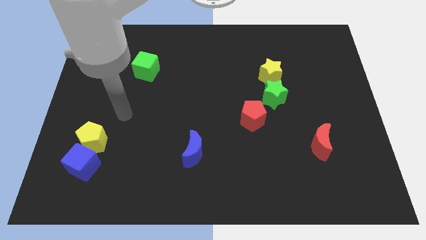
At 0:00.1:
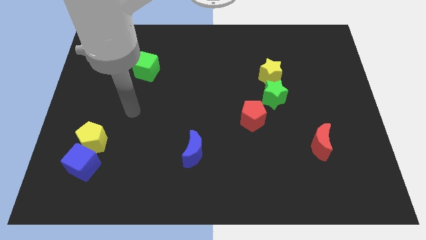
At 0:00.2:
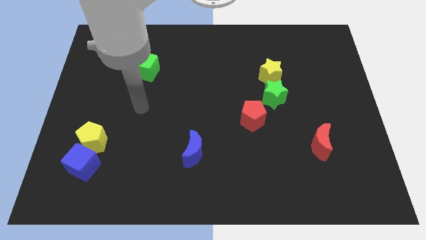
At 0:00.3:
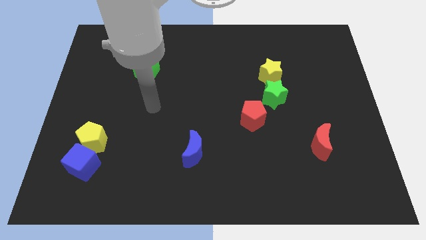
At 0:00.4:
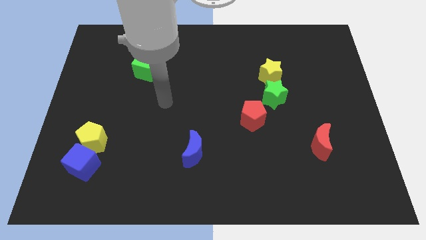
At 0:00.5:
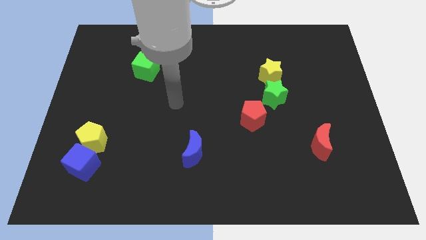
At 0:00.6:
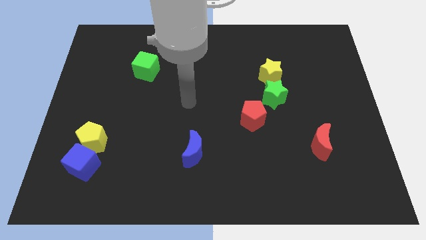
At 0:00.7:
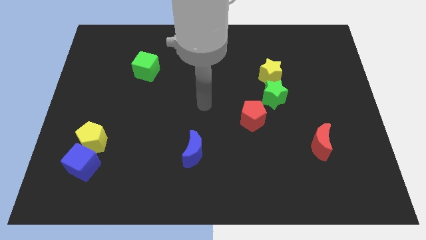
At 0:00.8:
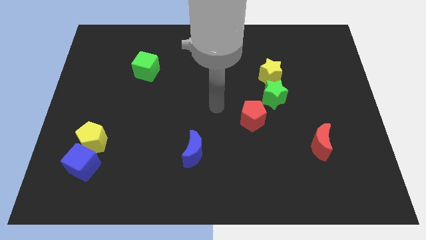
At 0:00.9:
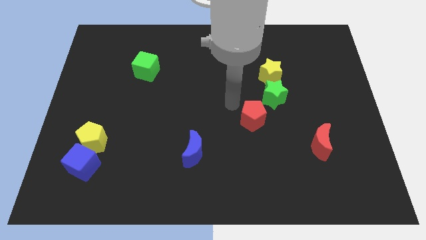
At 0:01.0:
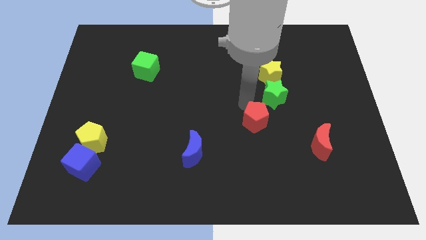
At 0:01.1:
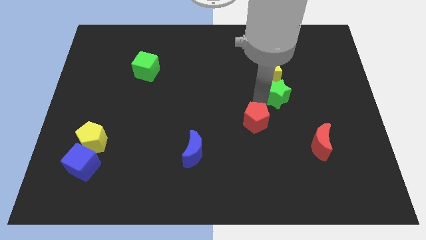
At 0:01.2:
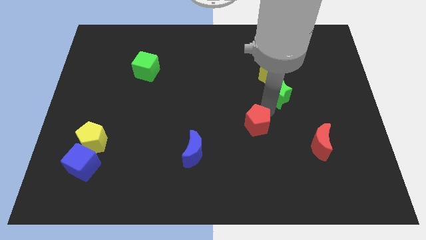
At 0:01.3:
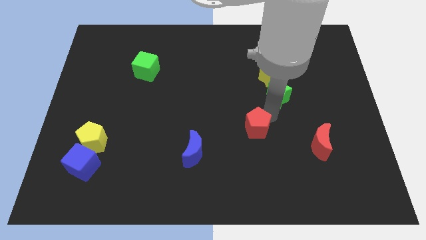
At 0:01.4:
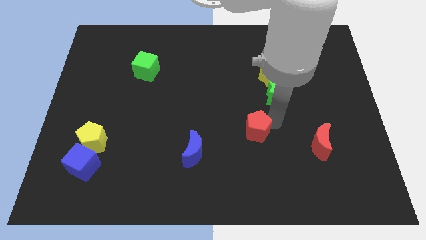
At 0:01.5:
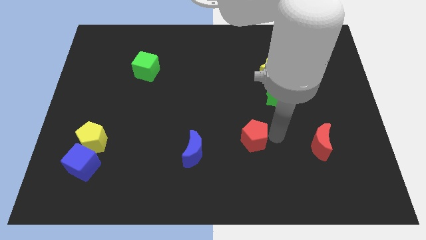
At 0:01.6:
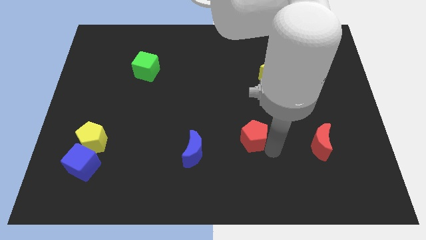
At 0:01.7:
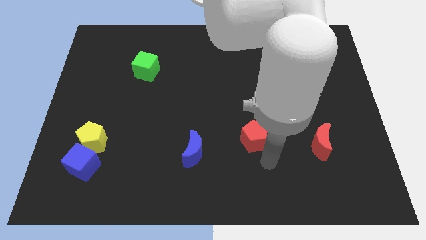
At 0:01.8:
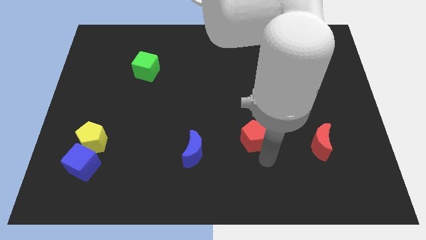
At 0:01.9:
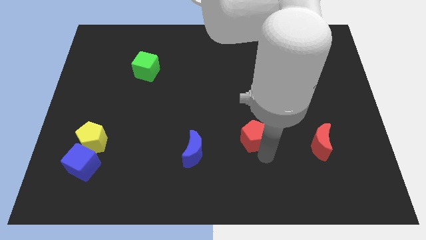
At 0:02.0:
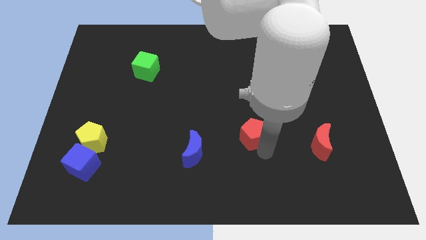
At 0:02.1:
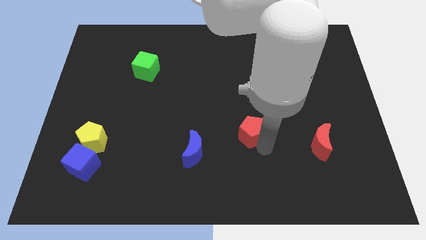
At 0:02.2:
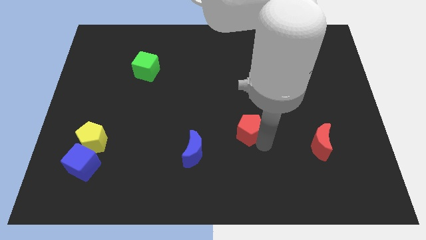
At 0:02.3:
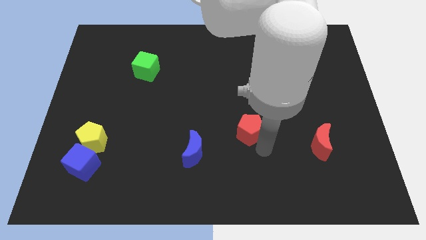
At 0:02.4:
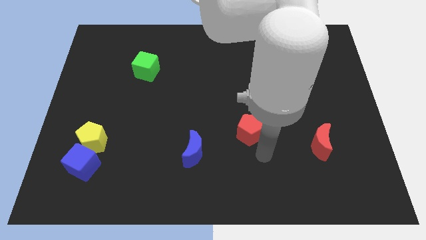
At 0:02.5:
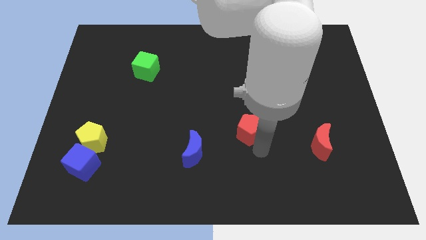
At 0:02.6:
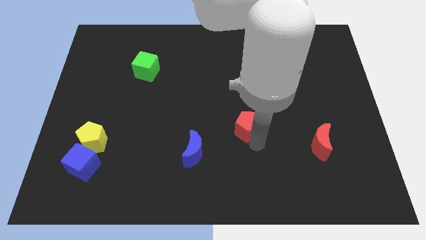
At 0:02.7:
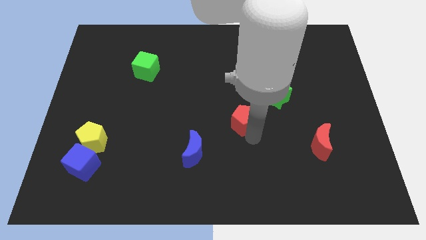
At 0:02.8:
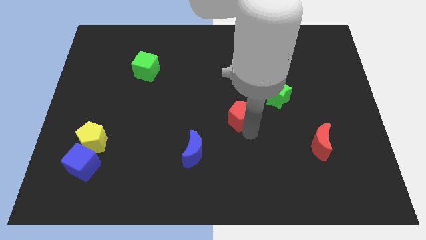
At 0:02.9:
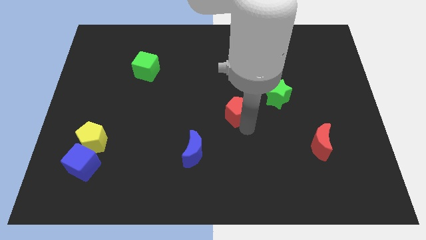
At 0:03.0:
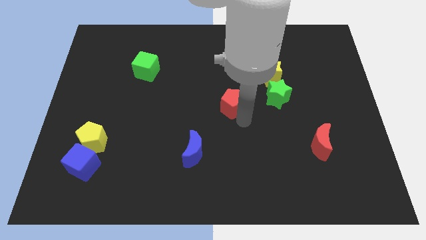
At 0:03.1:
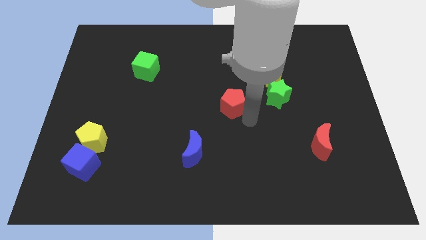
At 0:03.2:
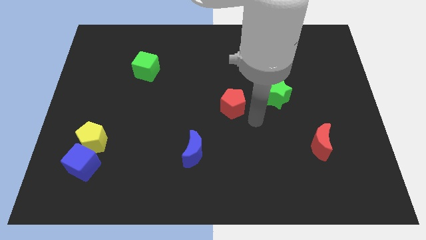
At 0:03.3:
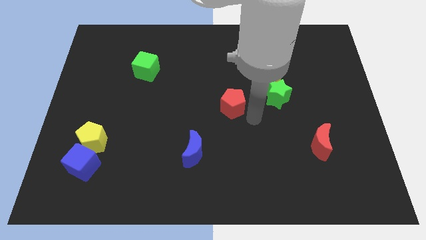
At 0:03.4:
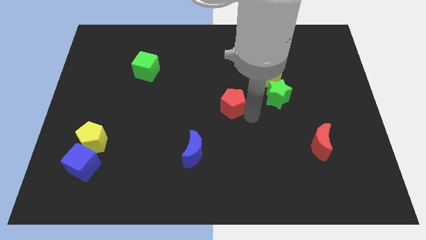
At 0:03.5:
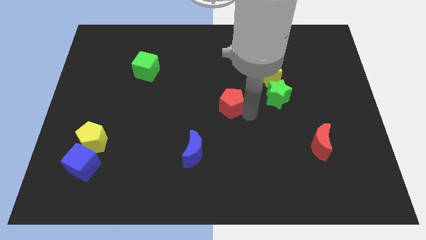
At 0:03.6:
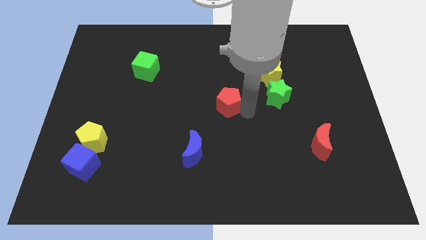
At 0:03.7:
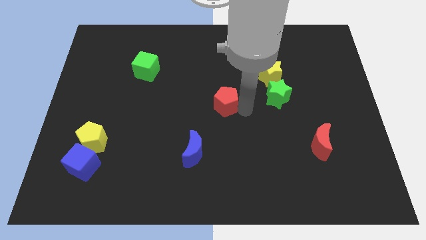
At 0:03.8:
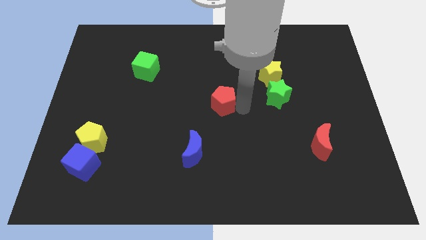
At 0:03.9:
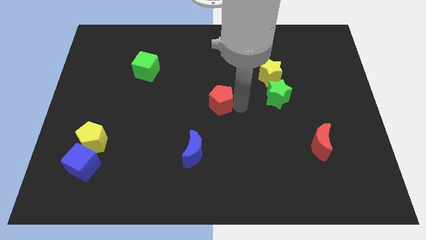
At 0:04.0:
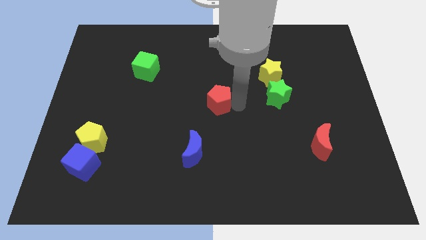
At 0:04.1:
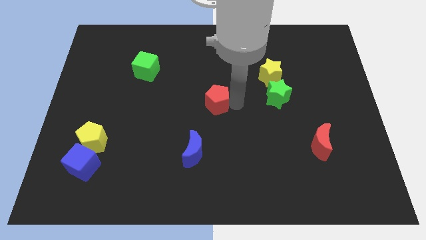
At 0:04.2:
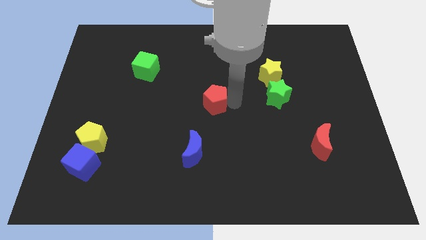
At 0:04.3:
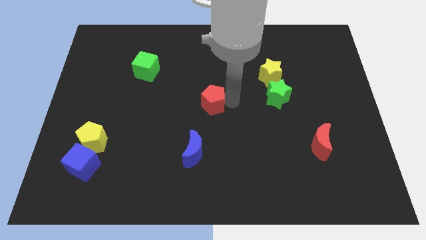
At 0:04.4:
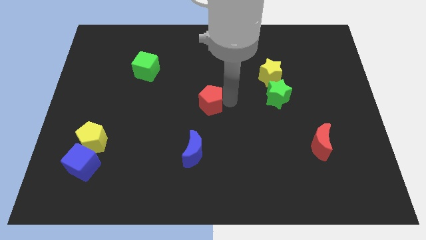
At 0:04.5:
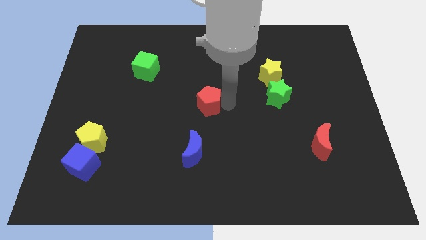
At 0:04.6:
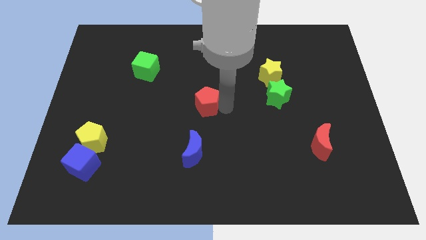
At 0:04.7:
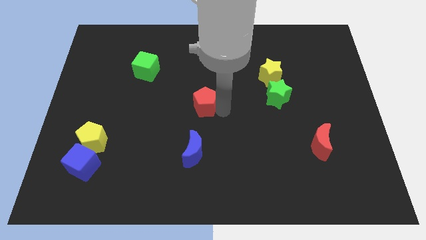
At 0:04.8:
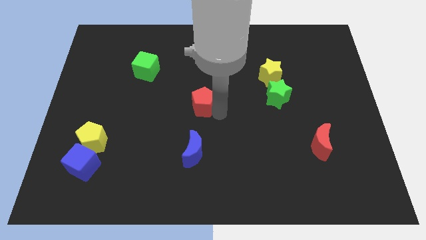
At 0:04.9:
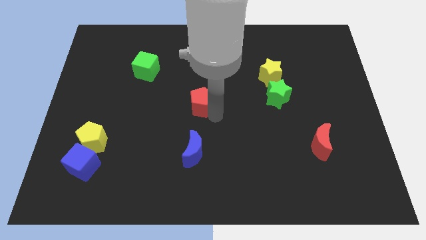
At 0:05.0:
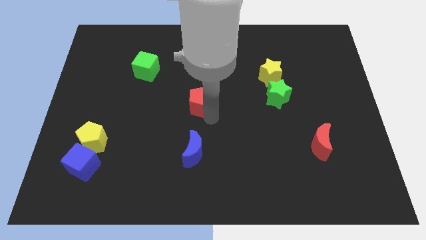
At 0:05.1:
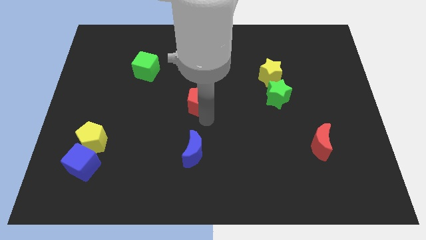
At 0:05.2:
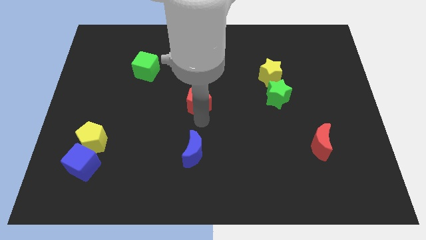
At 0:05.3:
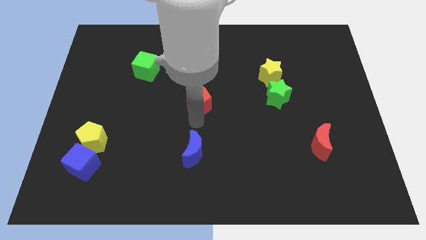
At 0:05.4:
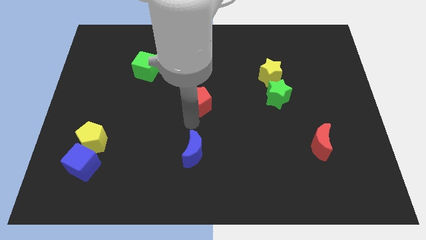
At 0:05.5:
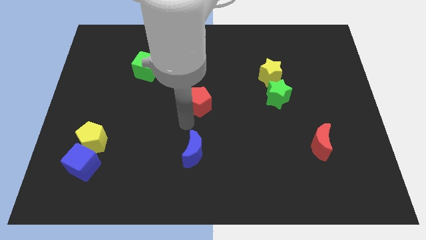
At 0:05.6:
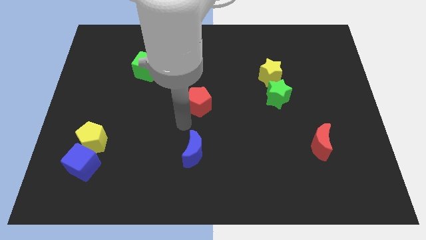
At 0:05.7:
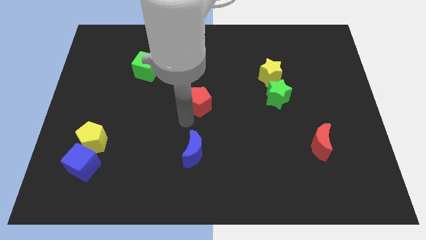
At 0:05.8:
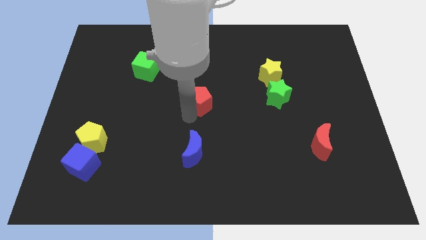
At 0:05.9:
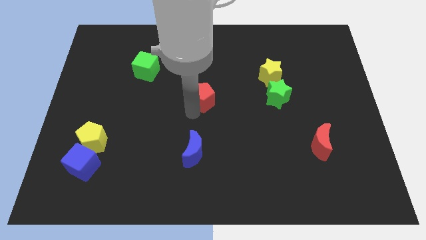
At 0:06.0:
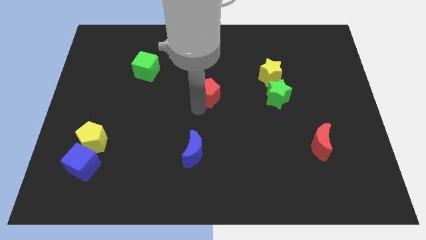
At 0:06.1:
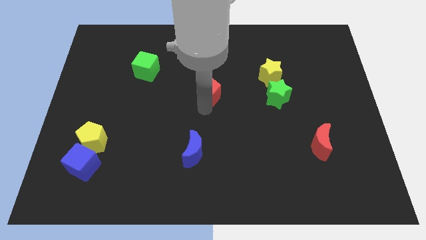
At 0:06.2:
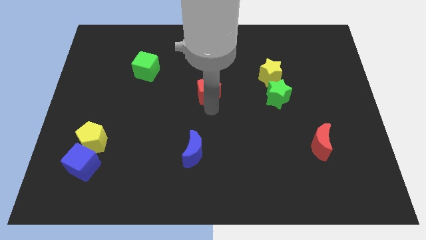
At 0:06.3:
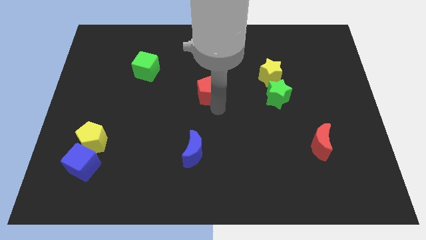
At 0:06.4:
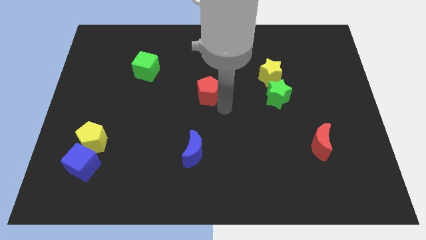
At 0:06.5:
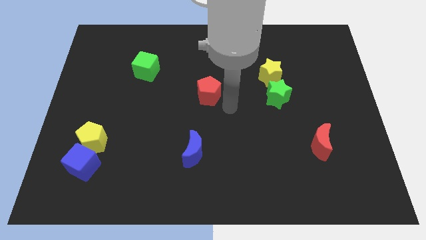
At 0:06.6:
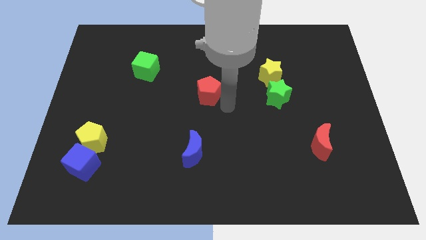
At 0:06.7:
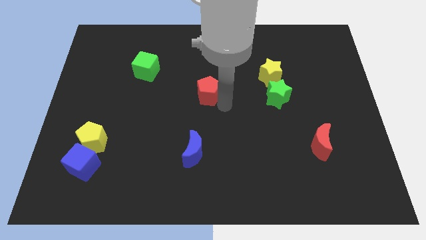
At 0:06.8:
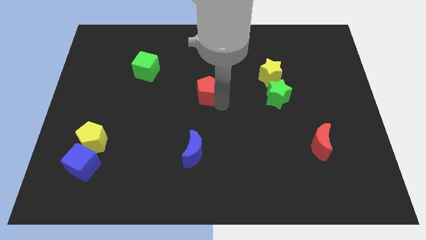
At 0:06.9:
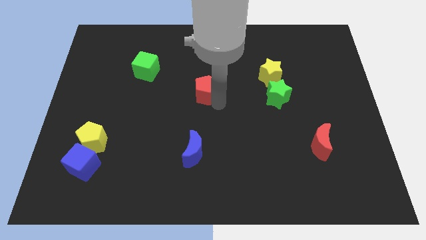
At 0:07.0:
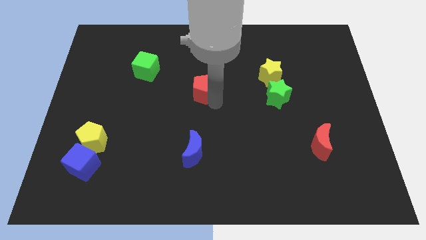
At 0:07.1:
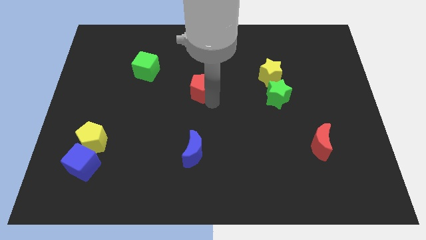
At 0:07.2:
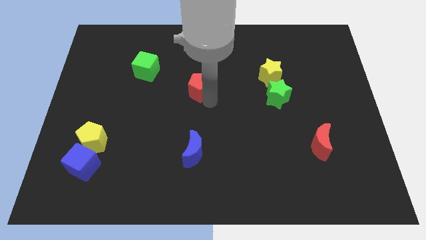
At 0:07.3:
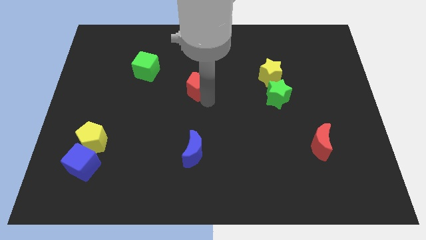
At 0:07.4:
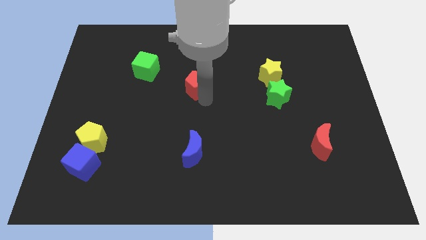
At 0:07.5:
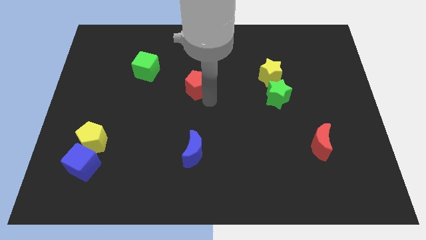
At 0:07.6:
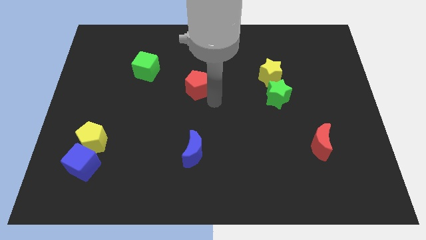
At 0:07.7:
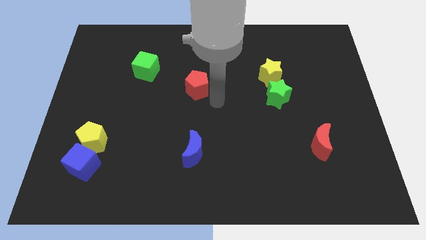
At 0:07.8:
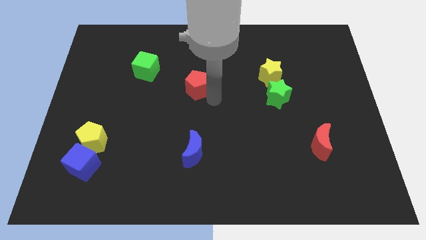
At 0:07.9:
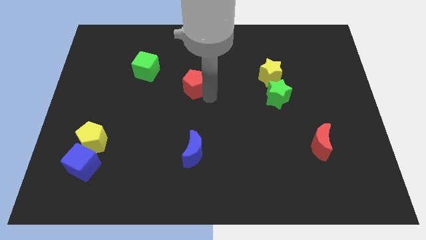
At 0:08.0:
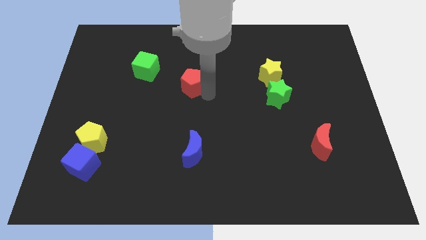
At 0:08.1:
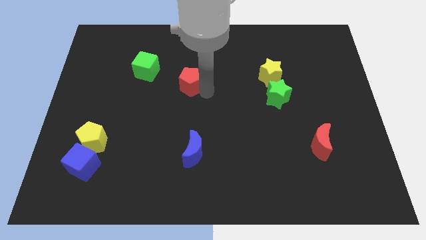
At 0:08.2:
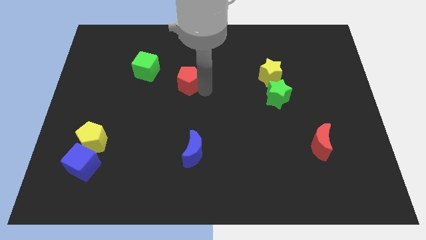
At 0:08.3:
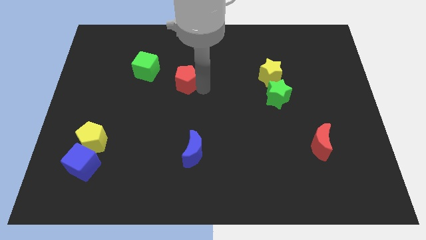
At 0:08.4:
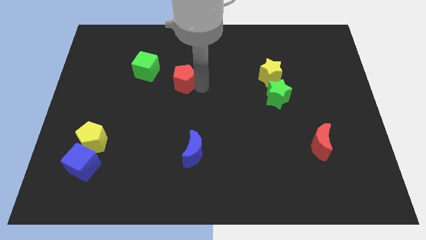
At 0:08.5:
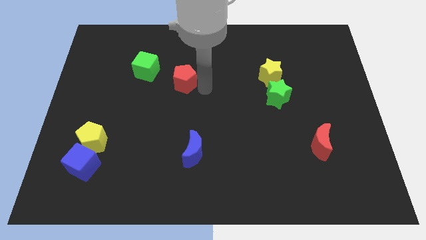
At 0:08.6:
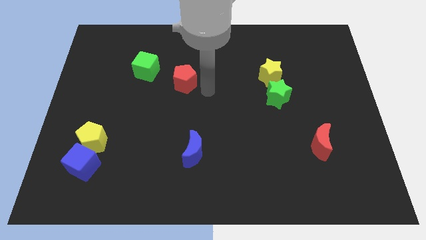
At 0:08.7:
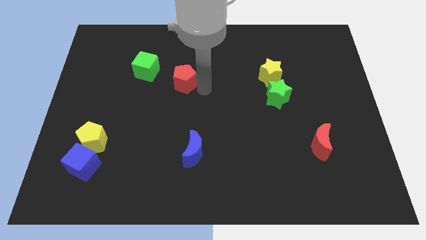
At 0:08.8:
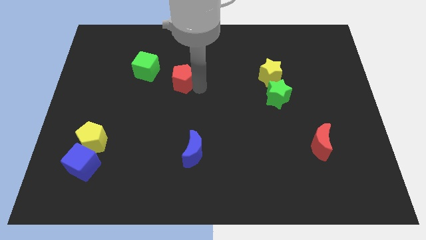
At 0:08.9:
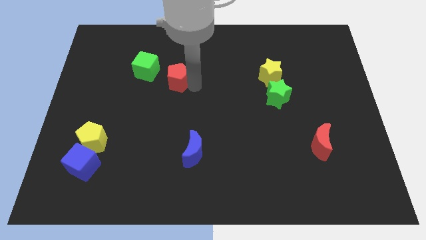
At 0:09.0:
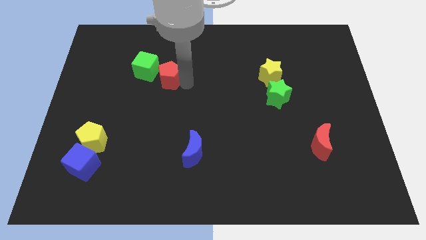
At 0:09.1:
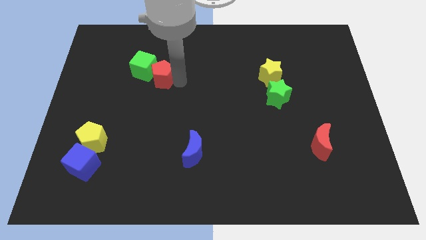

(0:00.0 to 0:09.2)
slide the red pentagon towards the green cube
